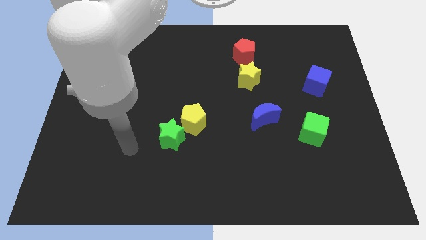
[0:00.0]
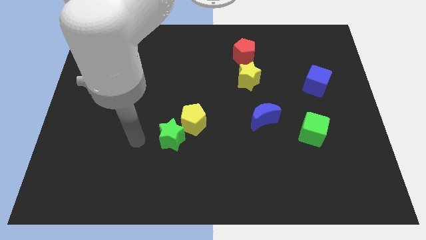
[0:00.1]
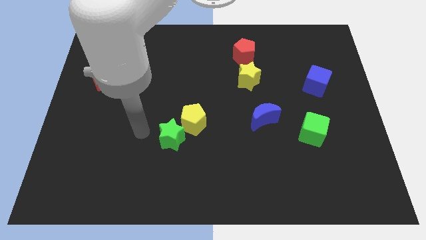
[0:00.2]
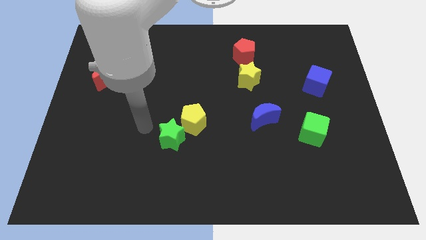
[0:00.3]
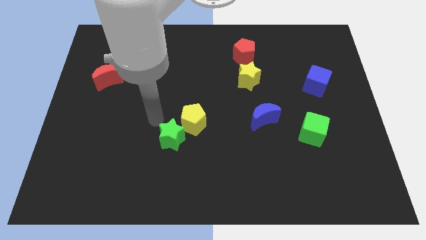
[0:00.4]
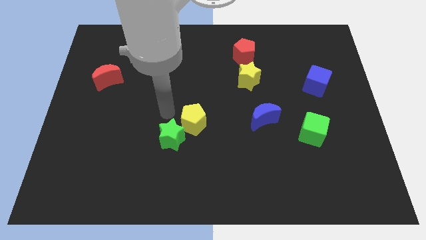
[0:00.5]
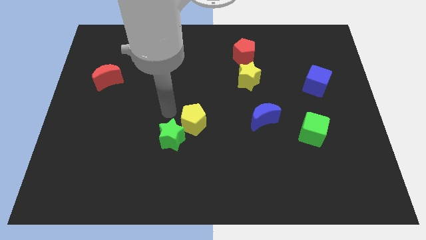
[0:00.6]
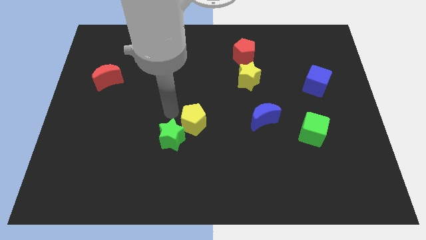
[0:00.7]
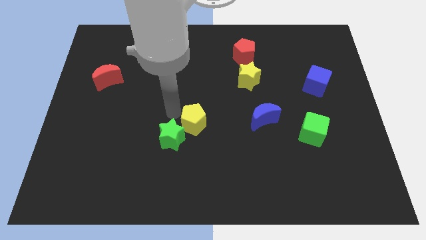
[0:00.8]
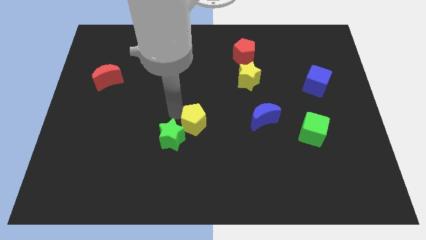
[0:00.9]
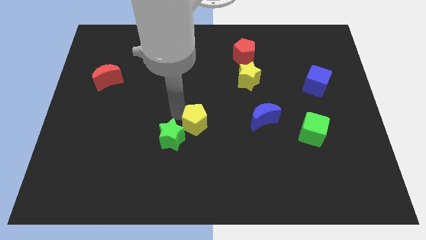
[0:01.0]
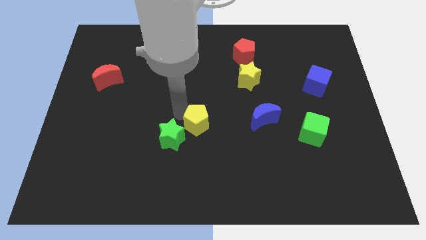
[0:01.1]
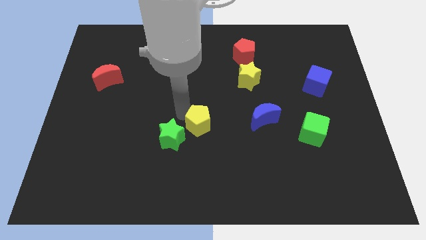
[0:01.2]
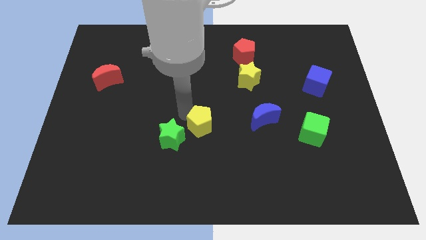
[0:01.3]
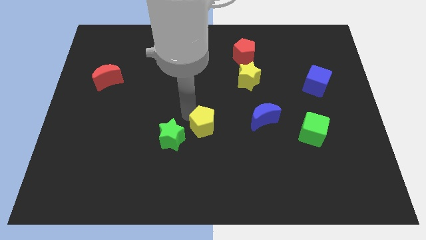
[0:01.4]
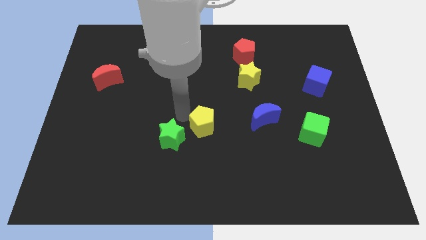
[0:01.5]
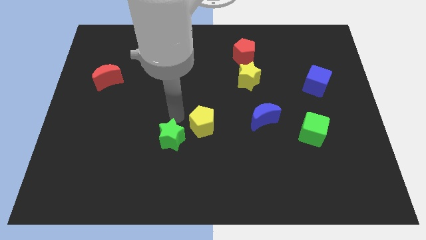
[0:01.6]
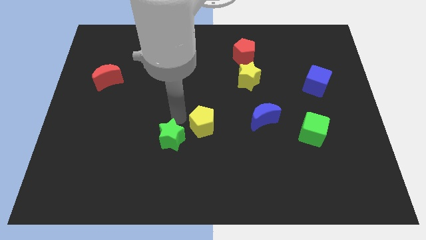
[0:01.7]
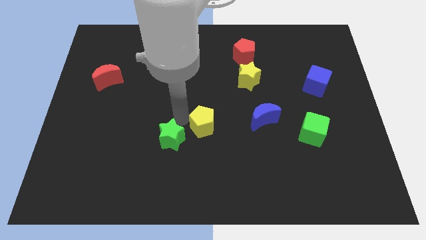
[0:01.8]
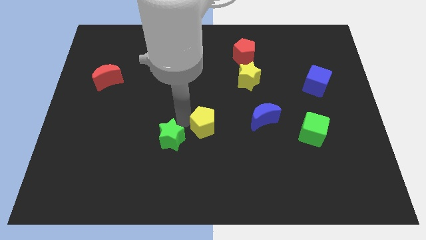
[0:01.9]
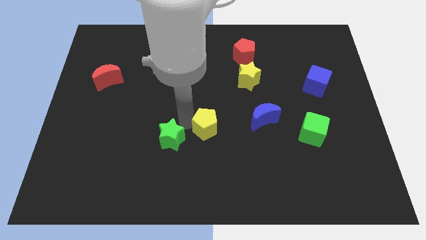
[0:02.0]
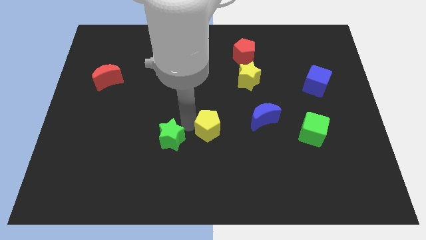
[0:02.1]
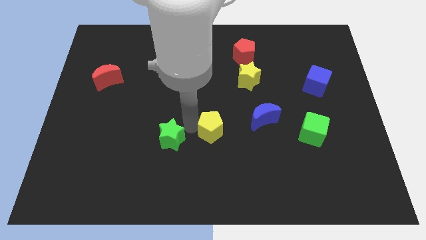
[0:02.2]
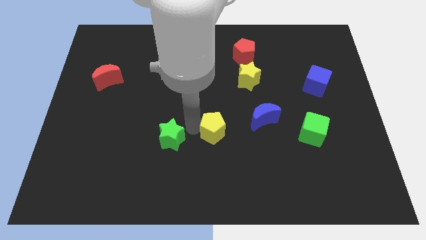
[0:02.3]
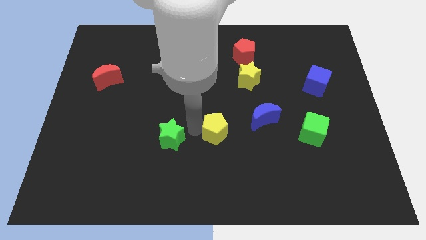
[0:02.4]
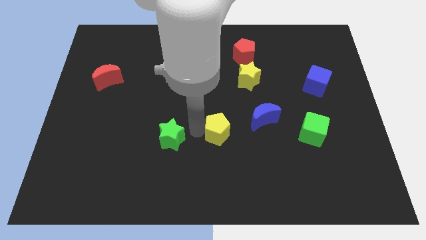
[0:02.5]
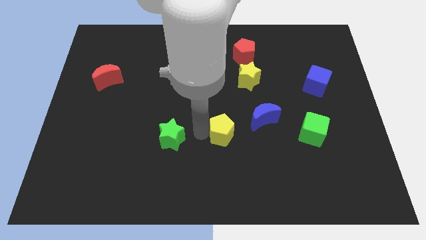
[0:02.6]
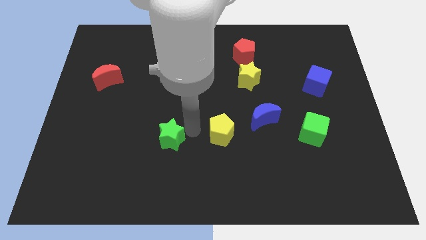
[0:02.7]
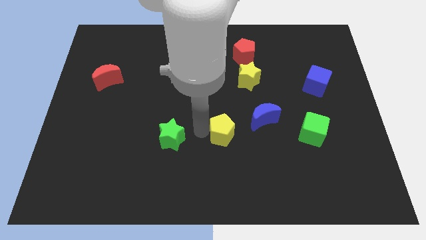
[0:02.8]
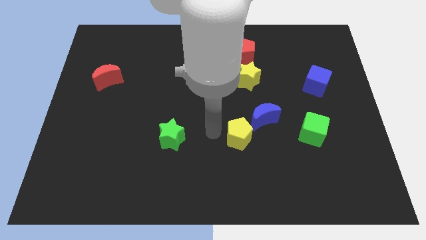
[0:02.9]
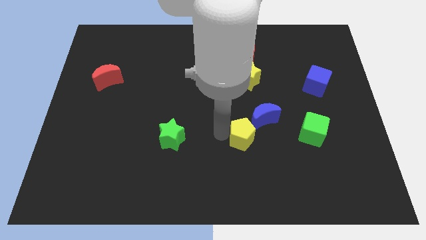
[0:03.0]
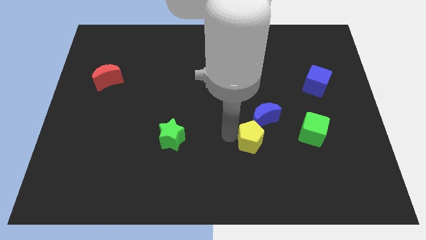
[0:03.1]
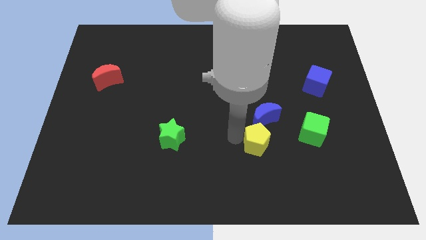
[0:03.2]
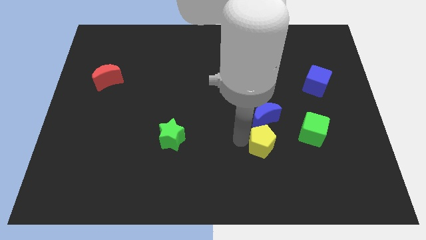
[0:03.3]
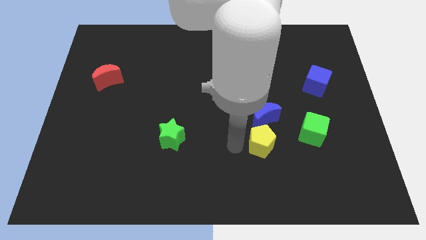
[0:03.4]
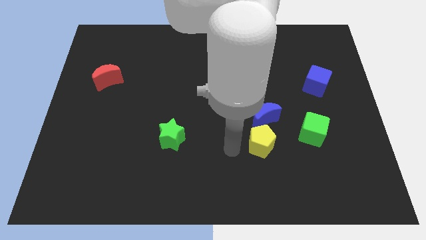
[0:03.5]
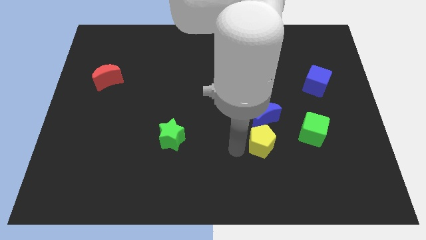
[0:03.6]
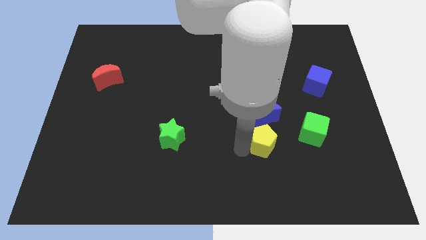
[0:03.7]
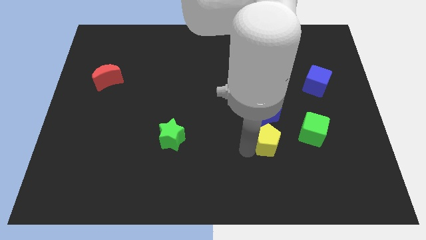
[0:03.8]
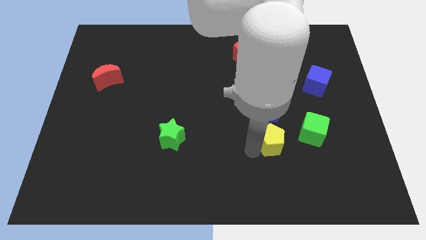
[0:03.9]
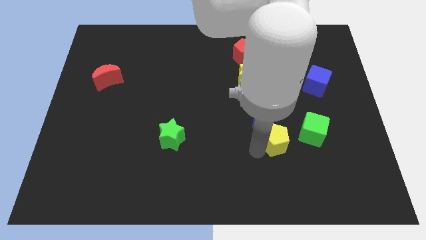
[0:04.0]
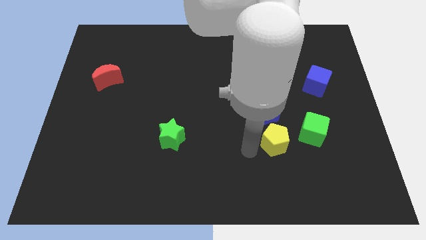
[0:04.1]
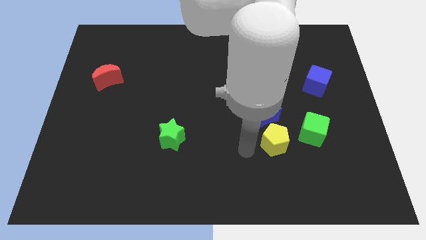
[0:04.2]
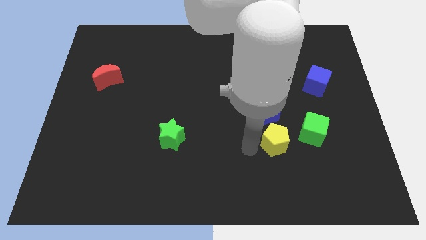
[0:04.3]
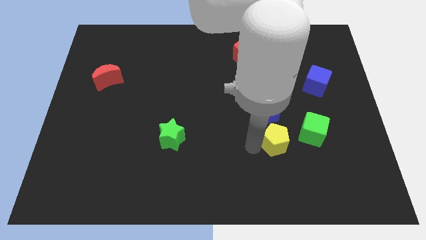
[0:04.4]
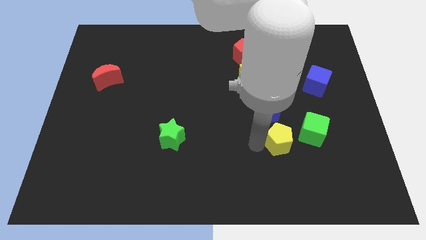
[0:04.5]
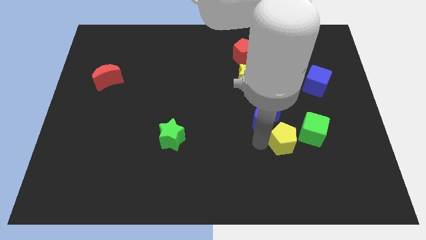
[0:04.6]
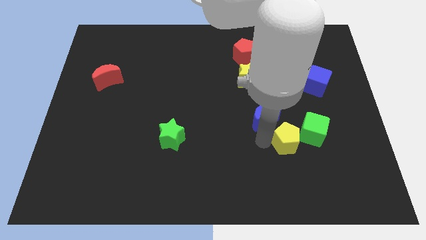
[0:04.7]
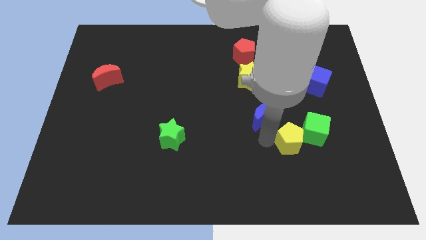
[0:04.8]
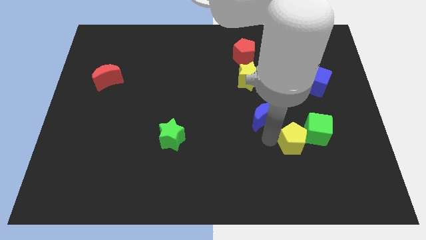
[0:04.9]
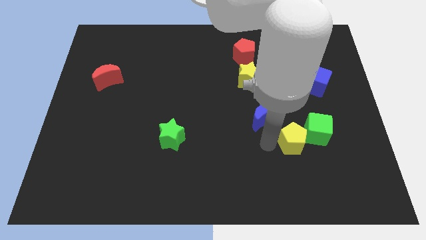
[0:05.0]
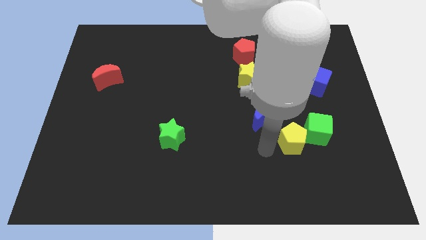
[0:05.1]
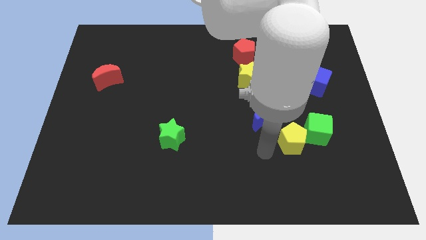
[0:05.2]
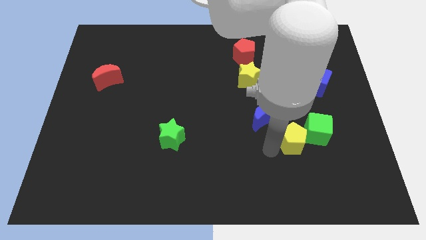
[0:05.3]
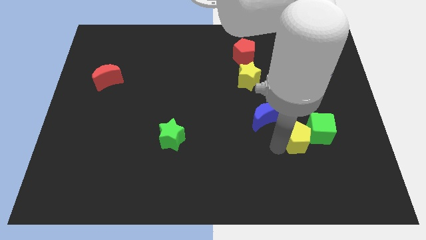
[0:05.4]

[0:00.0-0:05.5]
push the yellow pentagon close to the green cube

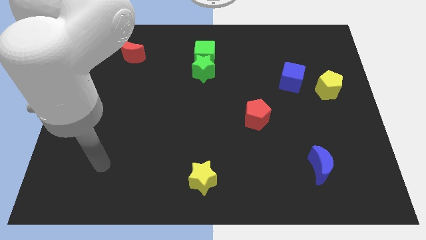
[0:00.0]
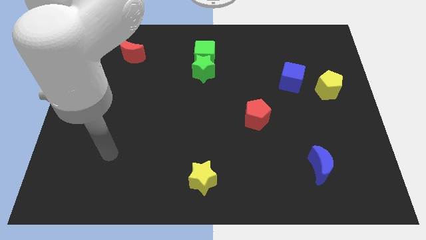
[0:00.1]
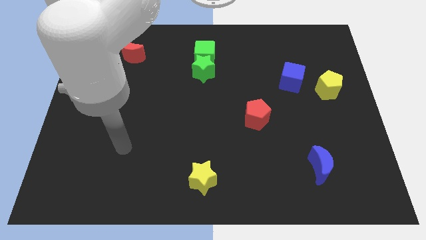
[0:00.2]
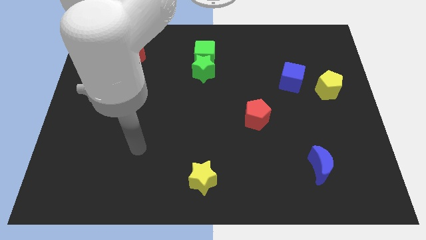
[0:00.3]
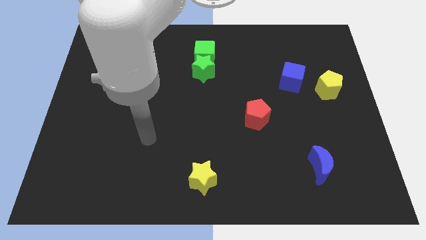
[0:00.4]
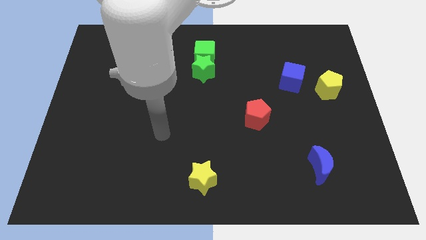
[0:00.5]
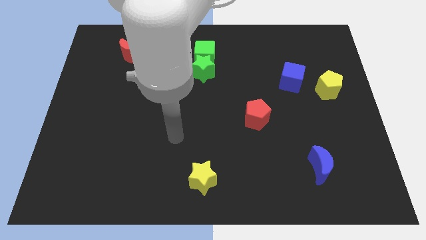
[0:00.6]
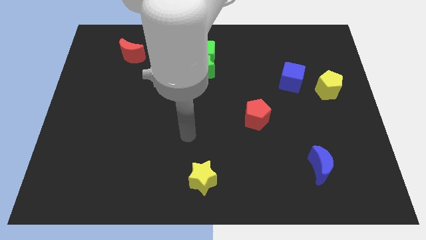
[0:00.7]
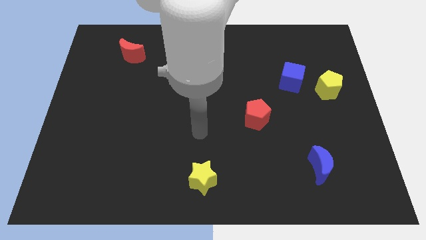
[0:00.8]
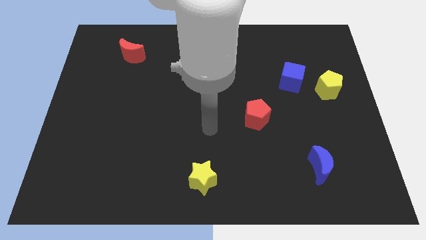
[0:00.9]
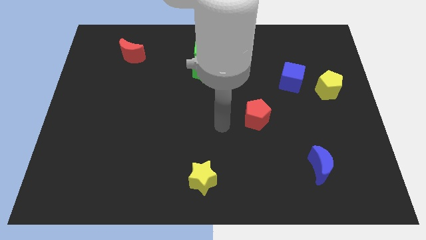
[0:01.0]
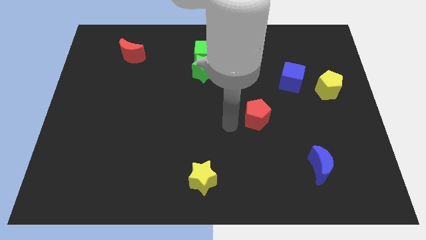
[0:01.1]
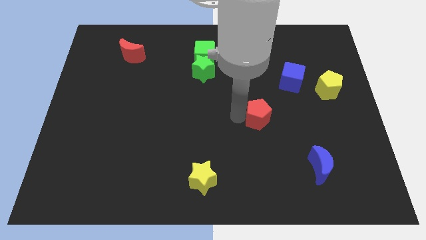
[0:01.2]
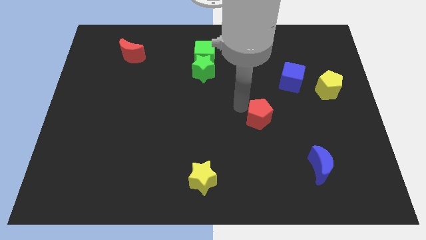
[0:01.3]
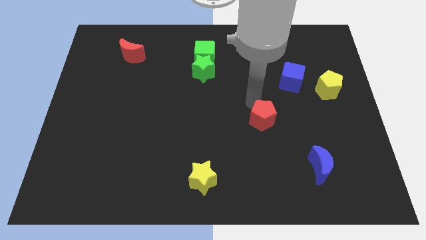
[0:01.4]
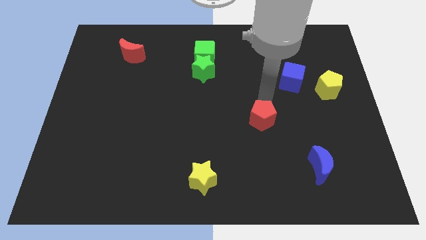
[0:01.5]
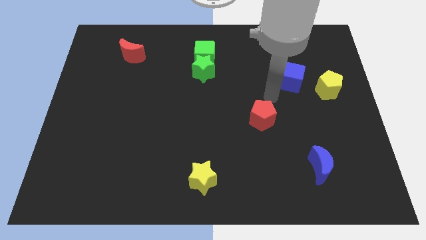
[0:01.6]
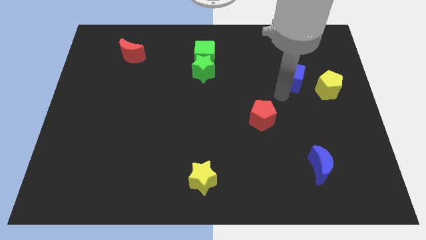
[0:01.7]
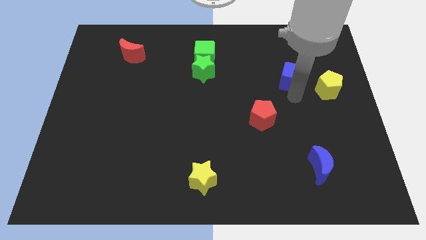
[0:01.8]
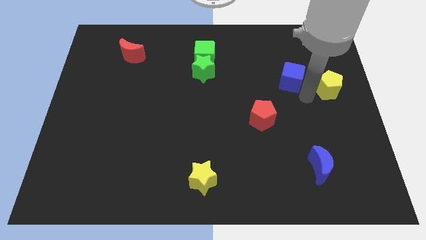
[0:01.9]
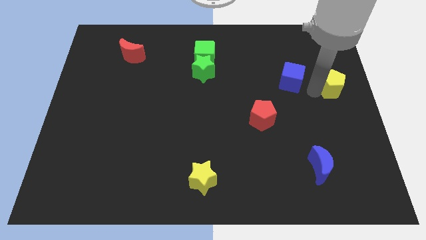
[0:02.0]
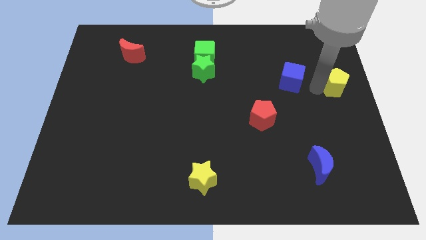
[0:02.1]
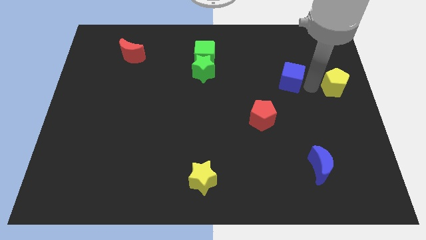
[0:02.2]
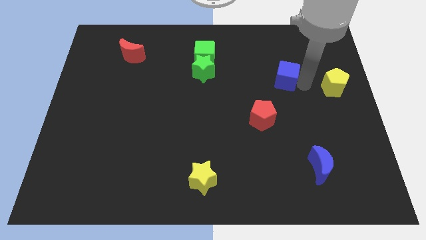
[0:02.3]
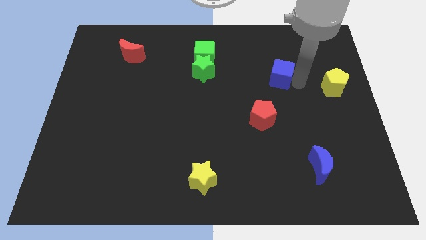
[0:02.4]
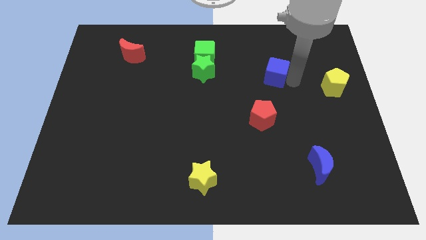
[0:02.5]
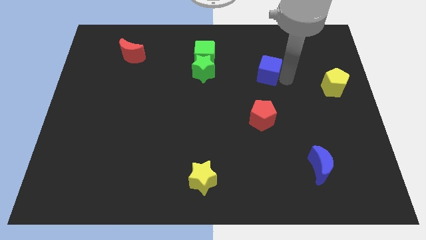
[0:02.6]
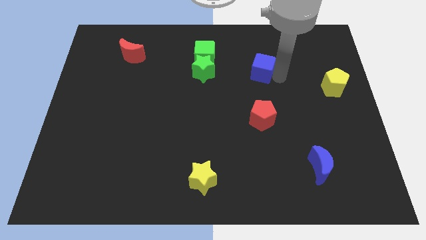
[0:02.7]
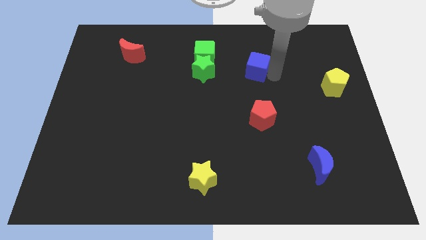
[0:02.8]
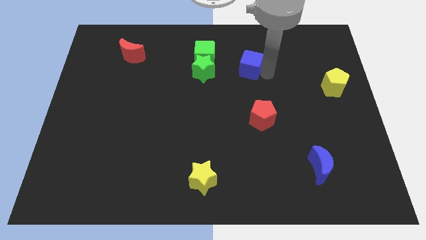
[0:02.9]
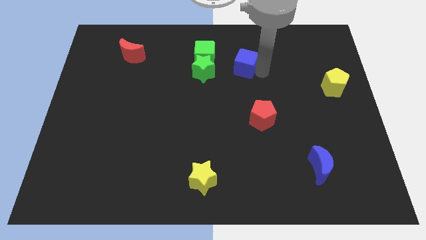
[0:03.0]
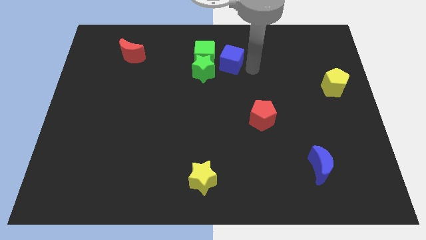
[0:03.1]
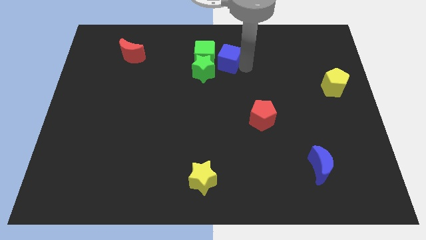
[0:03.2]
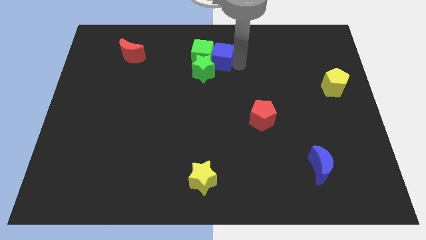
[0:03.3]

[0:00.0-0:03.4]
push the blue cube towards the green cube
